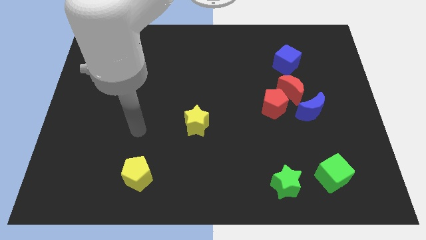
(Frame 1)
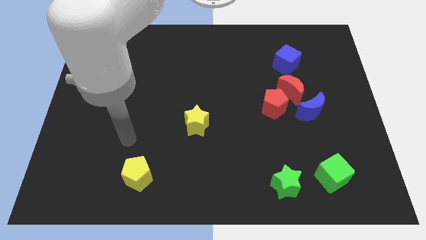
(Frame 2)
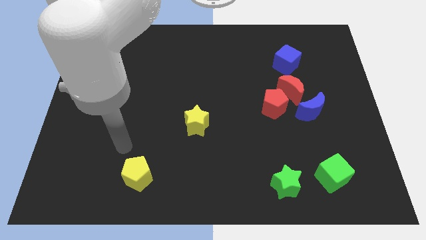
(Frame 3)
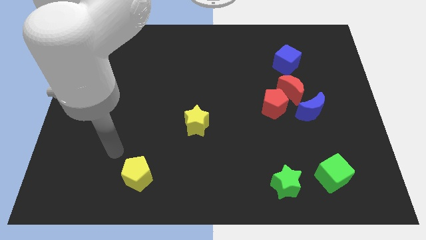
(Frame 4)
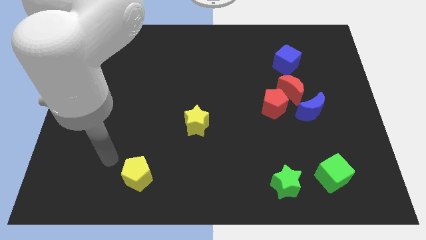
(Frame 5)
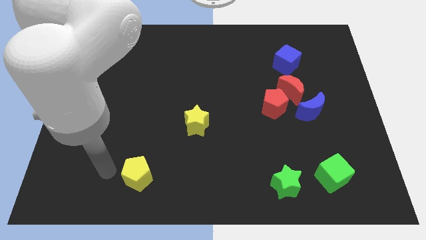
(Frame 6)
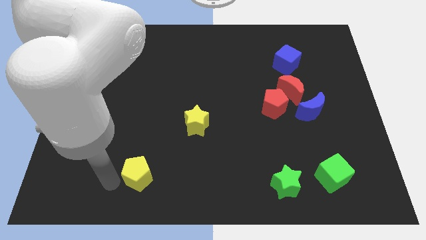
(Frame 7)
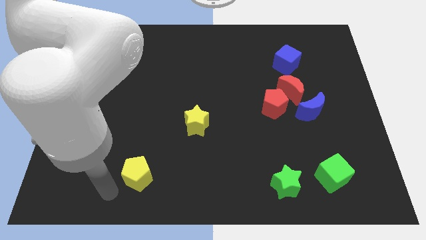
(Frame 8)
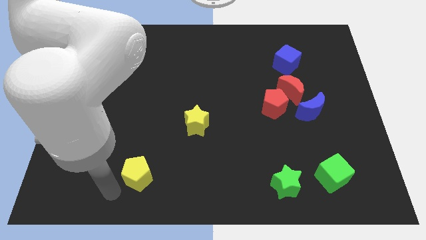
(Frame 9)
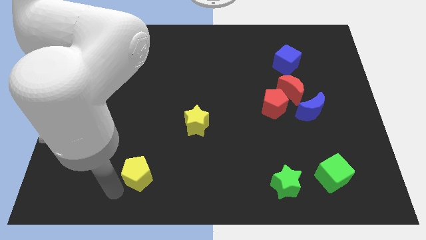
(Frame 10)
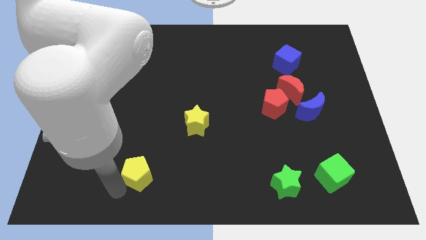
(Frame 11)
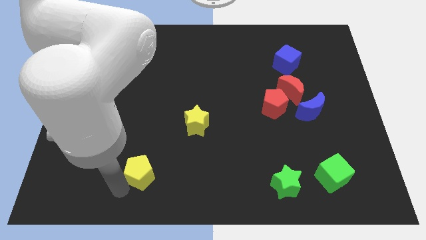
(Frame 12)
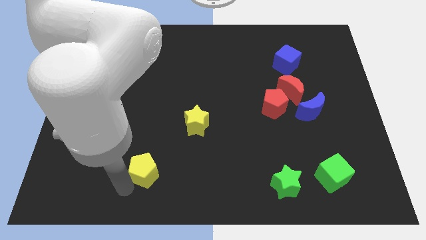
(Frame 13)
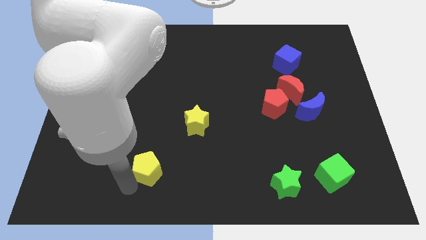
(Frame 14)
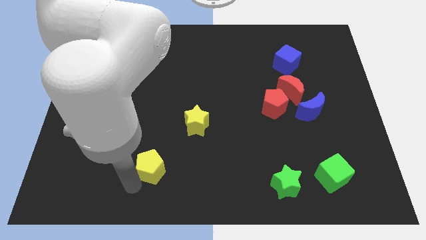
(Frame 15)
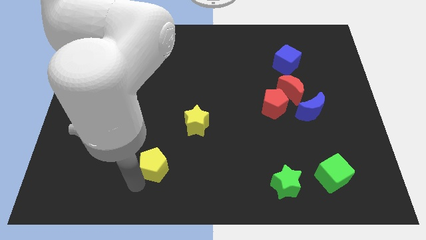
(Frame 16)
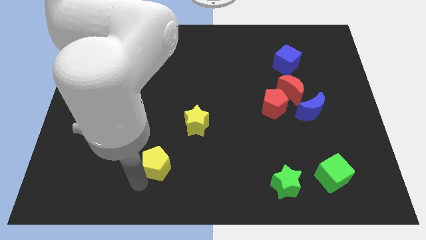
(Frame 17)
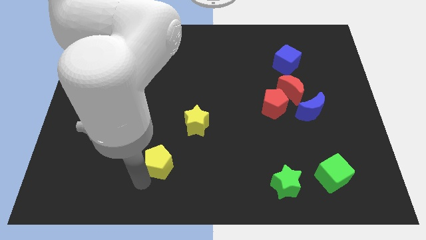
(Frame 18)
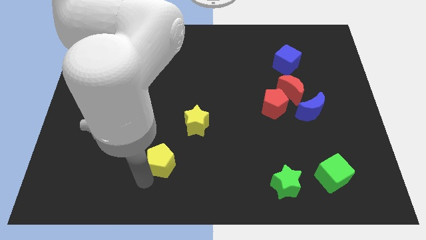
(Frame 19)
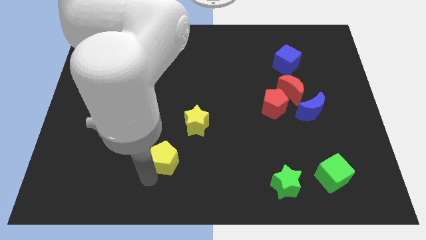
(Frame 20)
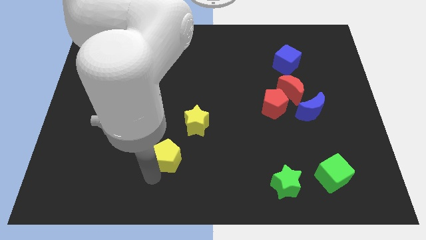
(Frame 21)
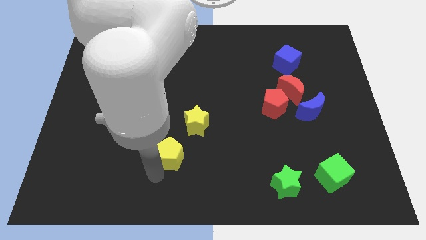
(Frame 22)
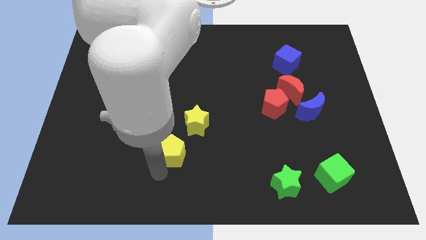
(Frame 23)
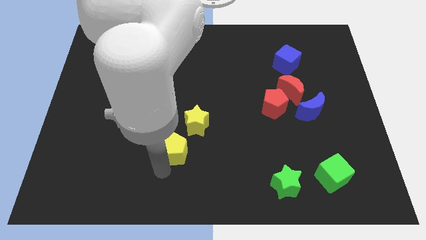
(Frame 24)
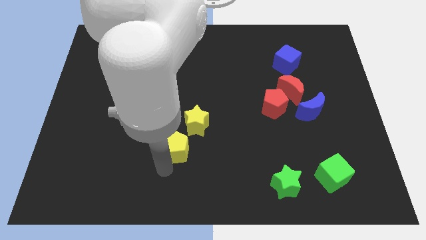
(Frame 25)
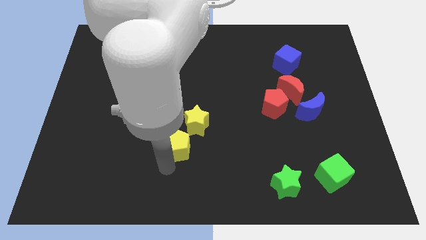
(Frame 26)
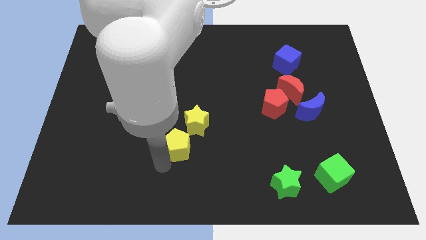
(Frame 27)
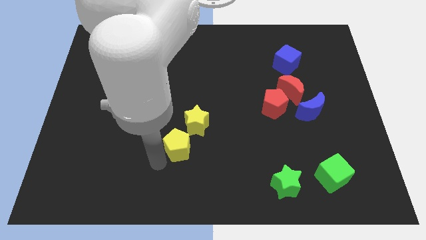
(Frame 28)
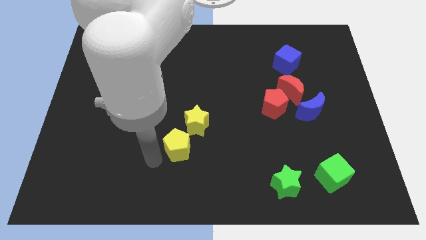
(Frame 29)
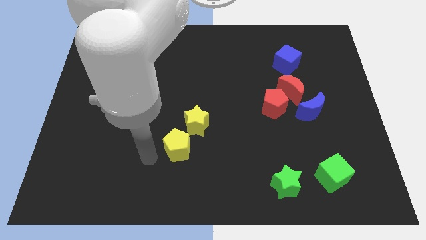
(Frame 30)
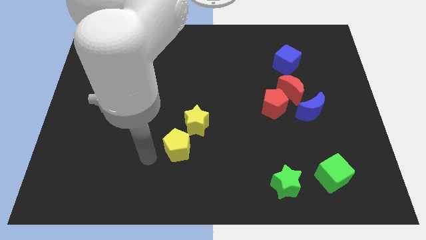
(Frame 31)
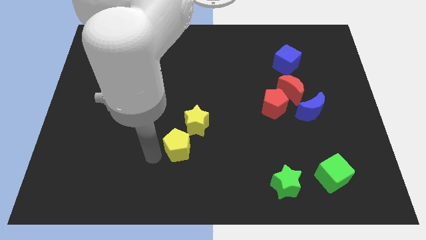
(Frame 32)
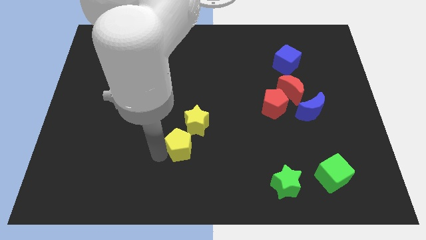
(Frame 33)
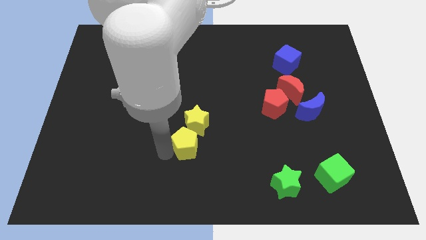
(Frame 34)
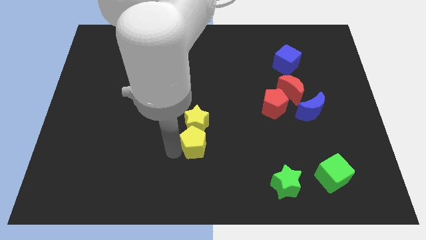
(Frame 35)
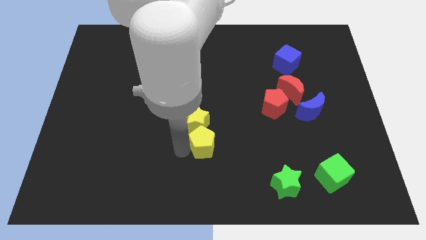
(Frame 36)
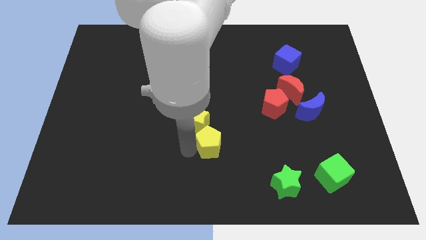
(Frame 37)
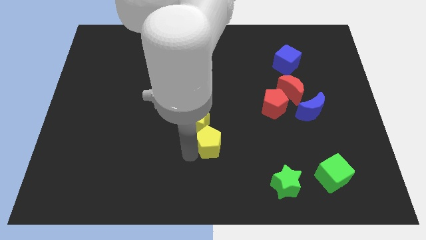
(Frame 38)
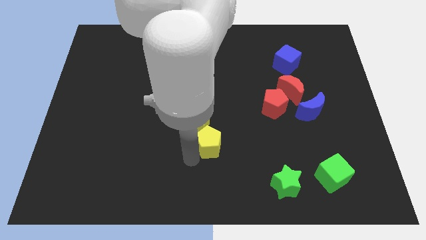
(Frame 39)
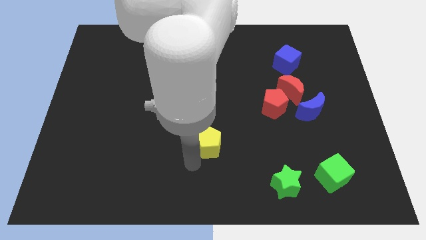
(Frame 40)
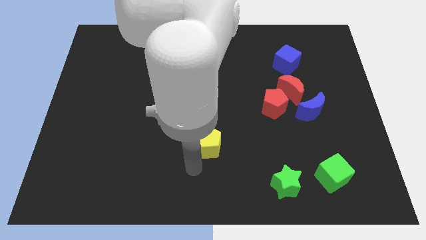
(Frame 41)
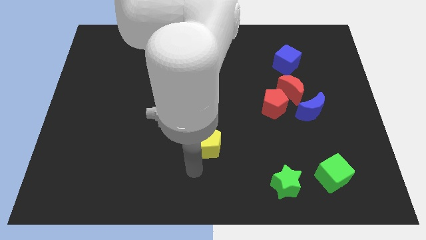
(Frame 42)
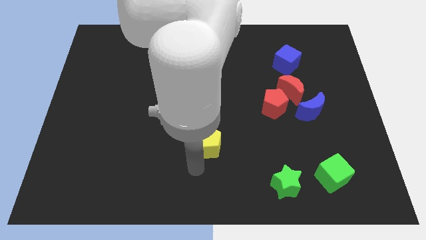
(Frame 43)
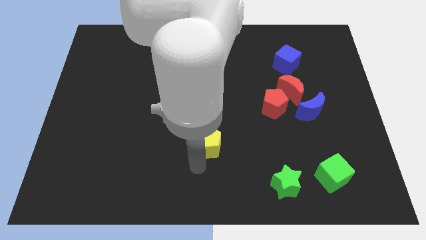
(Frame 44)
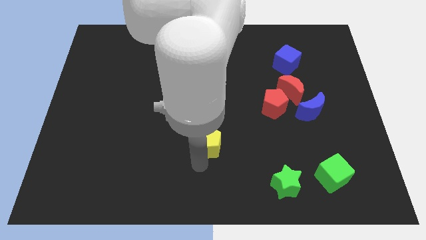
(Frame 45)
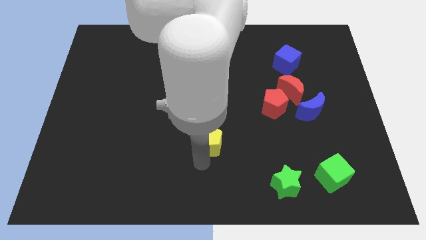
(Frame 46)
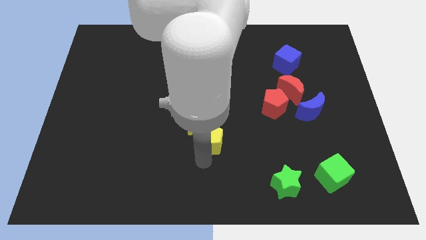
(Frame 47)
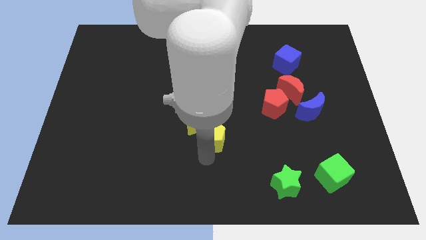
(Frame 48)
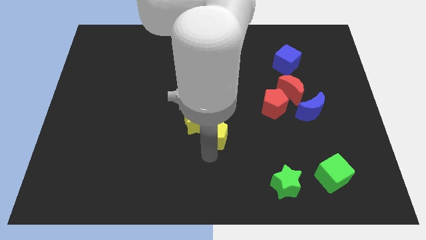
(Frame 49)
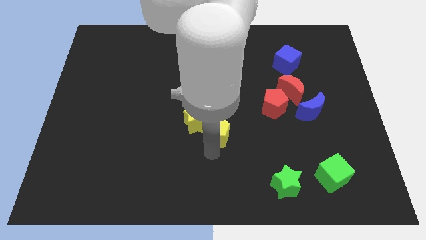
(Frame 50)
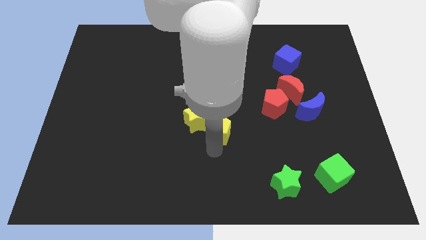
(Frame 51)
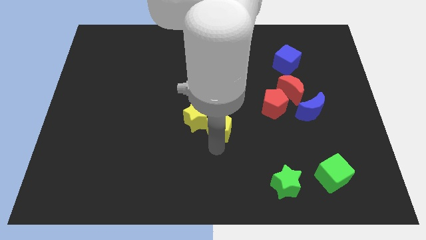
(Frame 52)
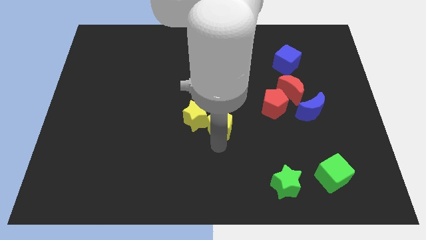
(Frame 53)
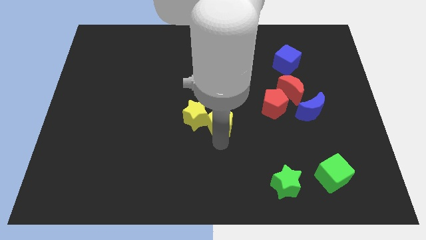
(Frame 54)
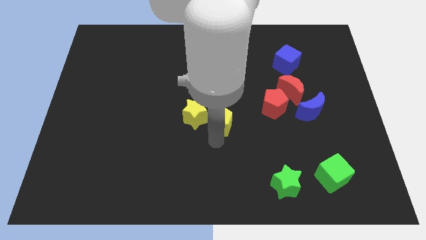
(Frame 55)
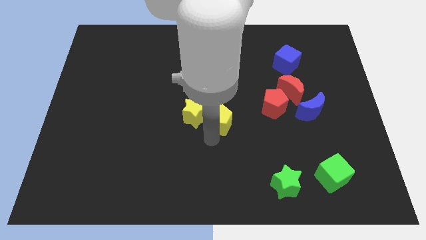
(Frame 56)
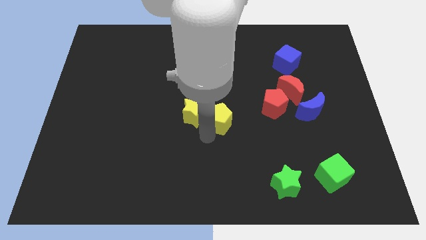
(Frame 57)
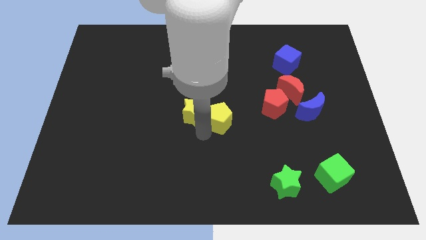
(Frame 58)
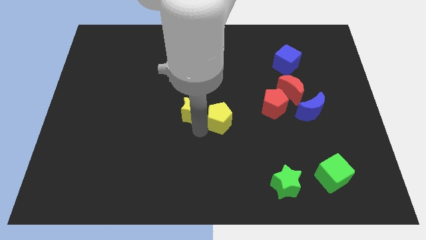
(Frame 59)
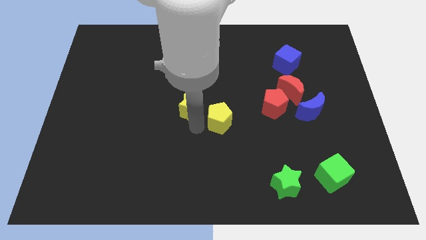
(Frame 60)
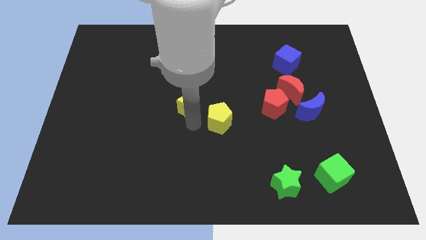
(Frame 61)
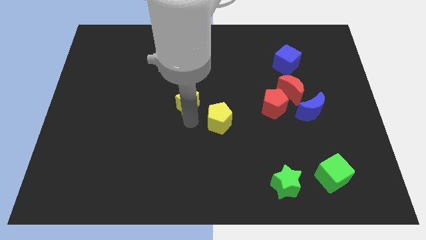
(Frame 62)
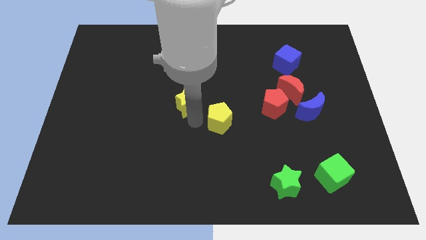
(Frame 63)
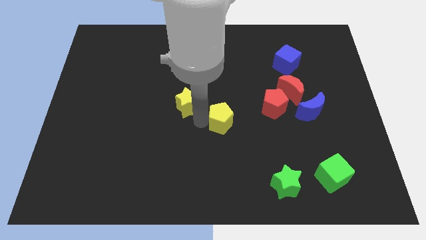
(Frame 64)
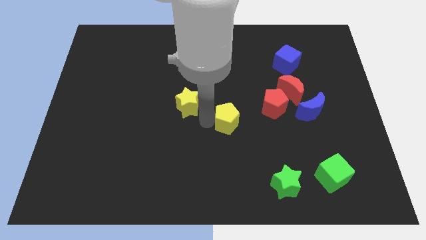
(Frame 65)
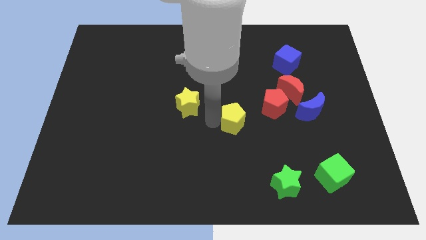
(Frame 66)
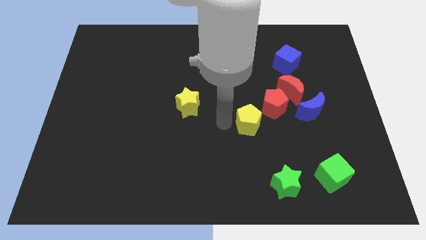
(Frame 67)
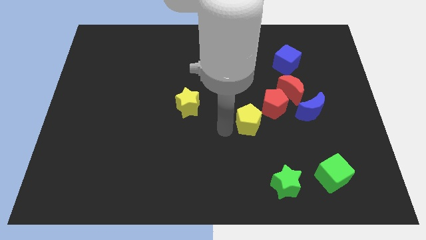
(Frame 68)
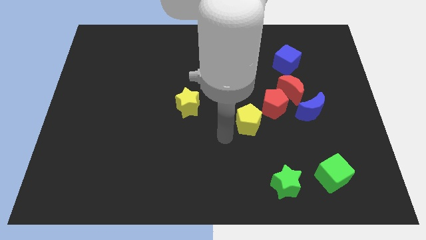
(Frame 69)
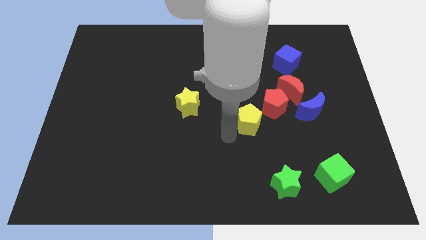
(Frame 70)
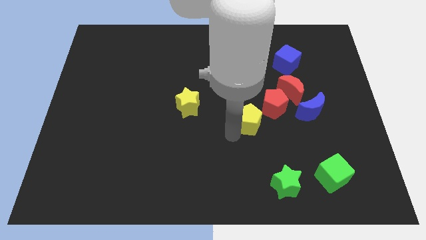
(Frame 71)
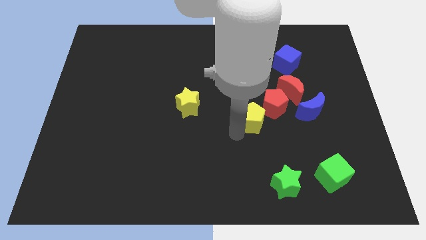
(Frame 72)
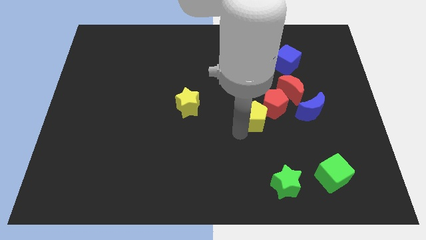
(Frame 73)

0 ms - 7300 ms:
push the yellow pentagon next to the red pentagon
